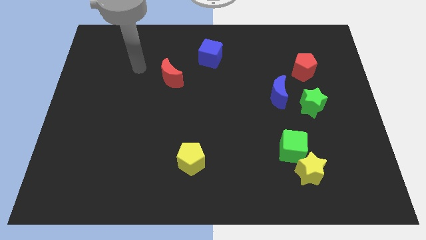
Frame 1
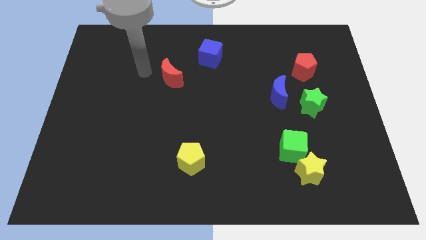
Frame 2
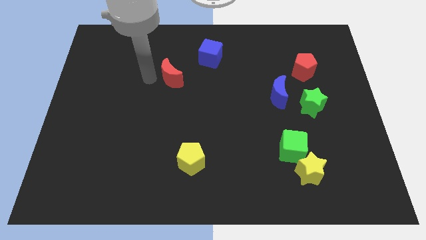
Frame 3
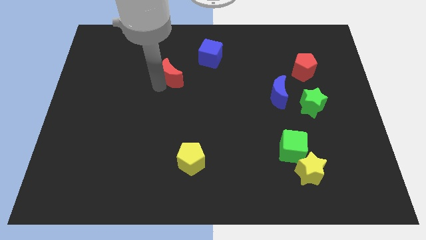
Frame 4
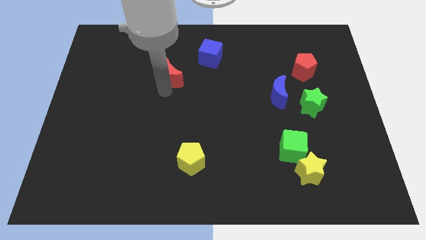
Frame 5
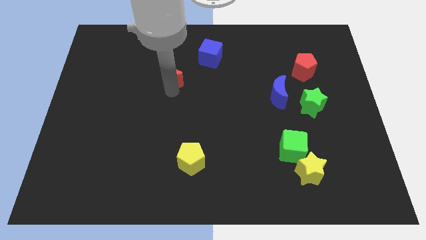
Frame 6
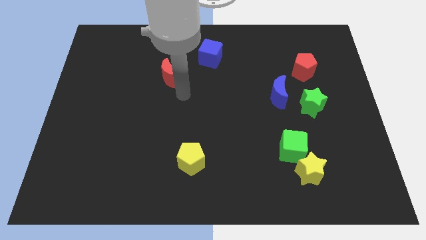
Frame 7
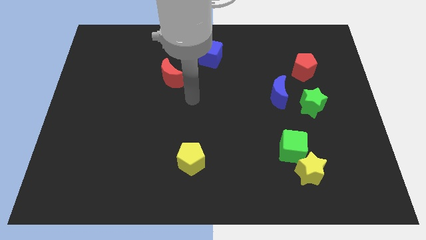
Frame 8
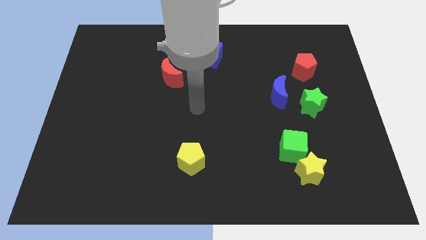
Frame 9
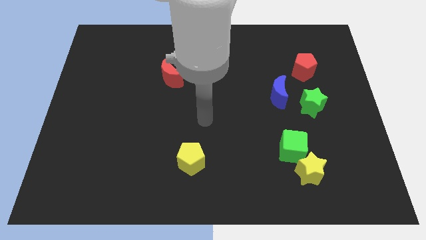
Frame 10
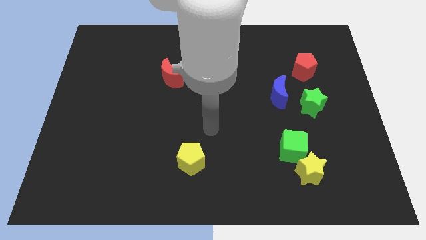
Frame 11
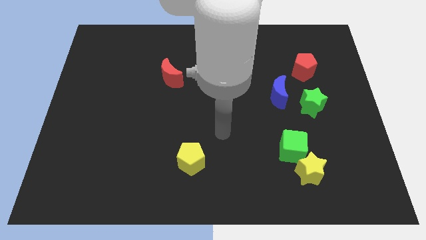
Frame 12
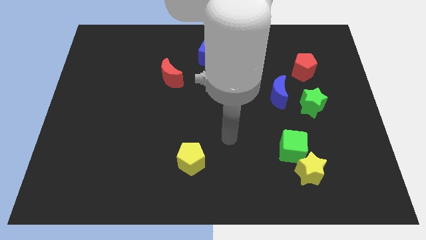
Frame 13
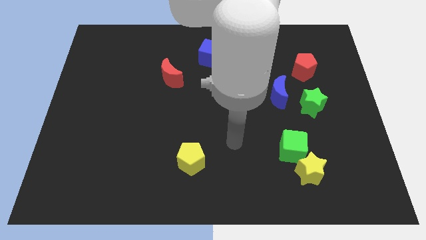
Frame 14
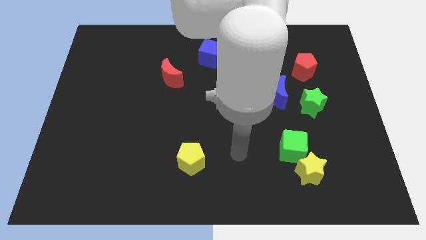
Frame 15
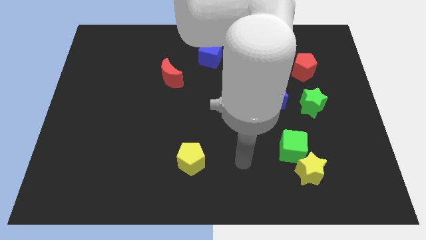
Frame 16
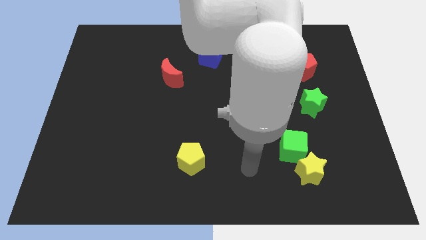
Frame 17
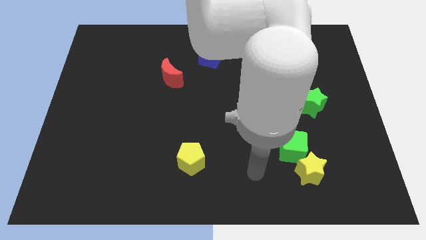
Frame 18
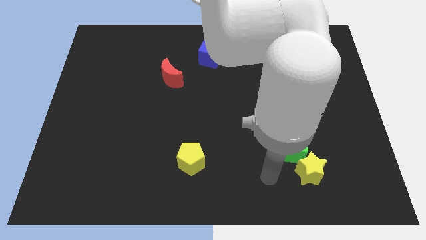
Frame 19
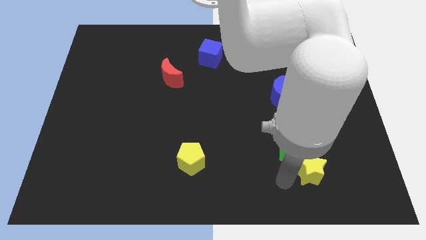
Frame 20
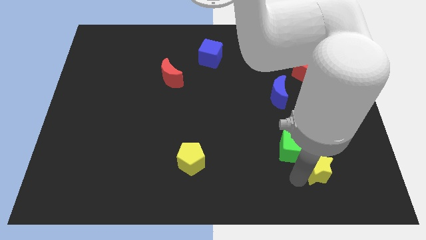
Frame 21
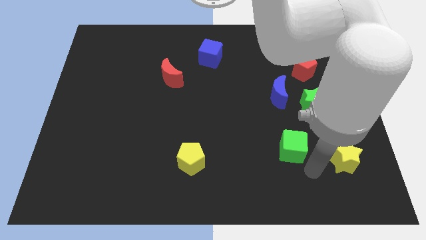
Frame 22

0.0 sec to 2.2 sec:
move the green cube away from the yellow star

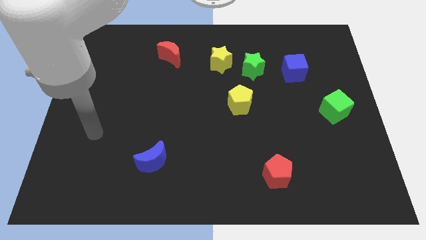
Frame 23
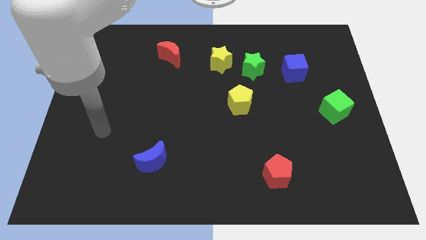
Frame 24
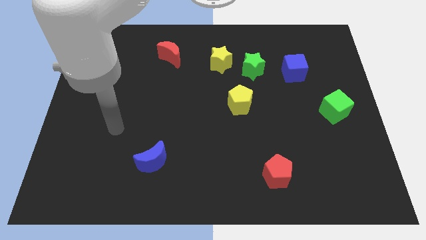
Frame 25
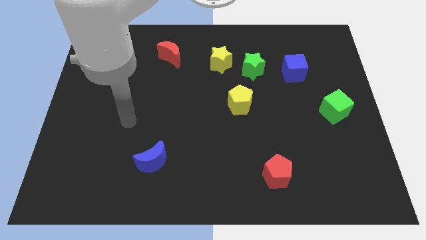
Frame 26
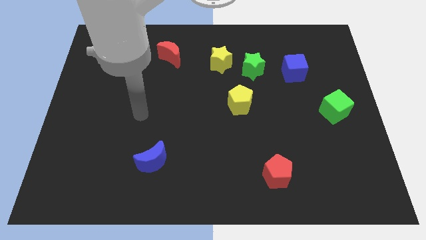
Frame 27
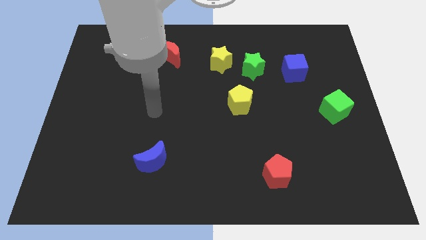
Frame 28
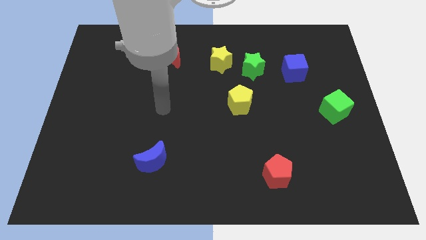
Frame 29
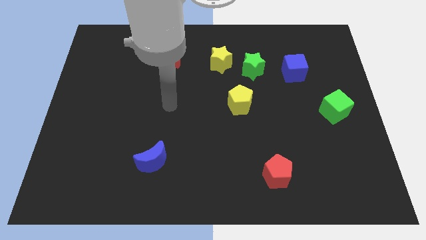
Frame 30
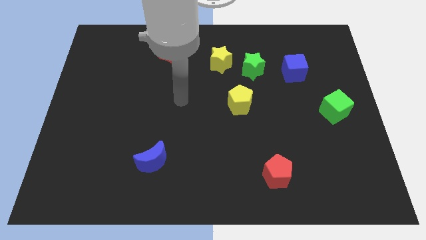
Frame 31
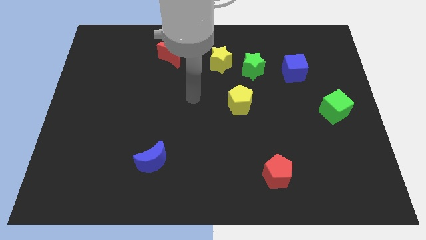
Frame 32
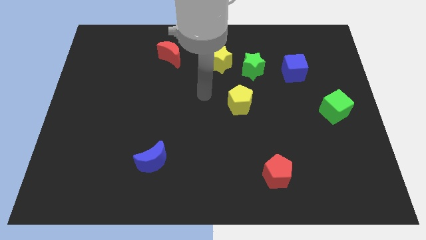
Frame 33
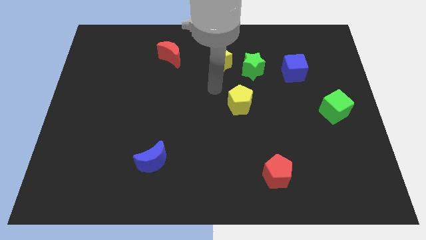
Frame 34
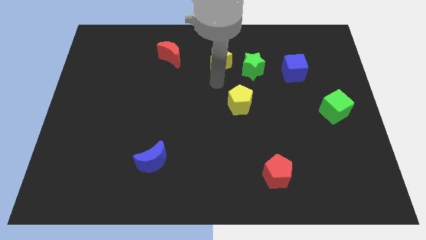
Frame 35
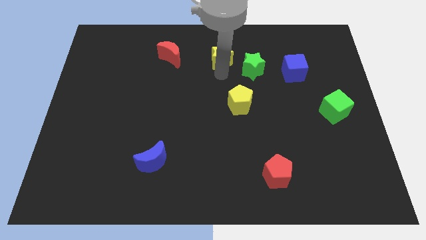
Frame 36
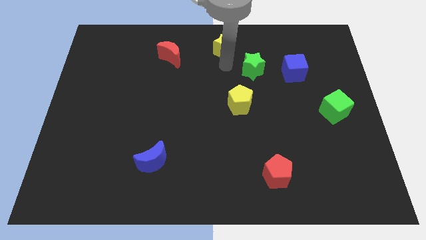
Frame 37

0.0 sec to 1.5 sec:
move the green star away from the yellow star

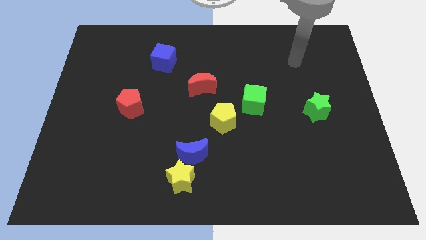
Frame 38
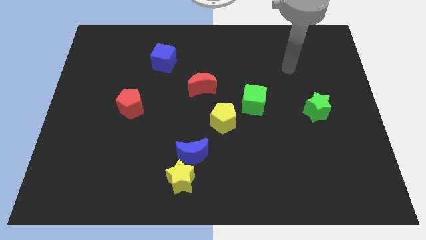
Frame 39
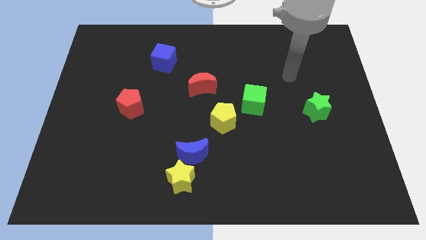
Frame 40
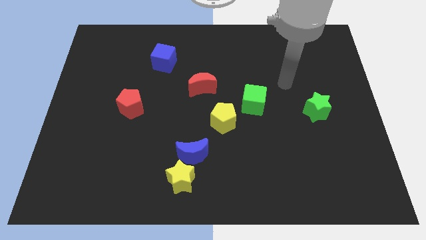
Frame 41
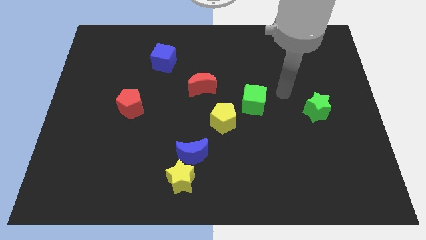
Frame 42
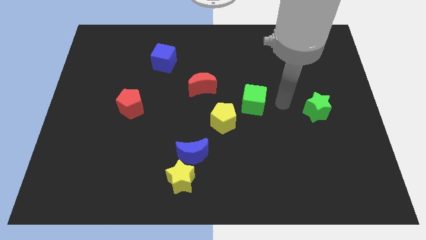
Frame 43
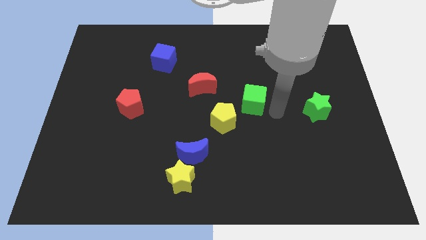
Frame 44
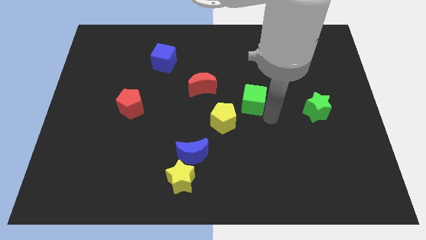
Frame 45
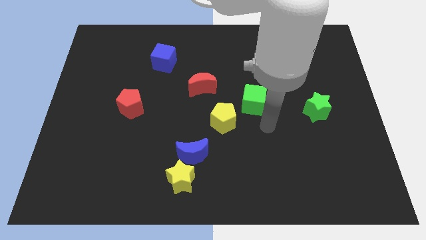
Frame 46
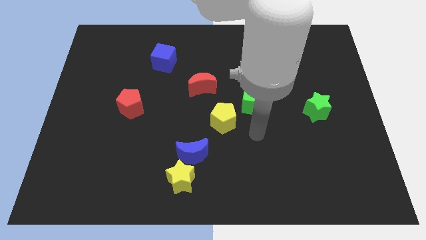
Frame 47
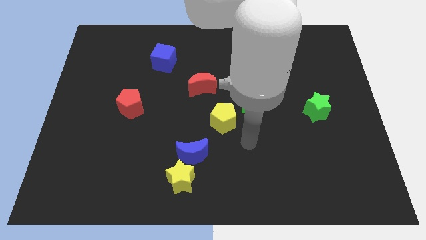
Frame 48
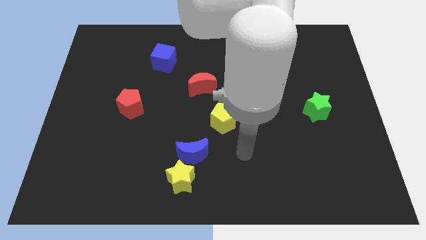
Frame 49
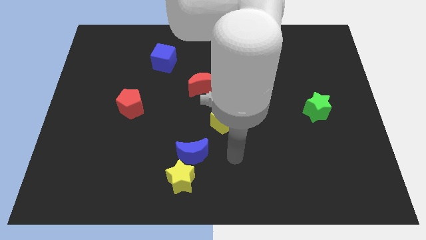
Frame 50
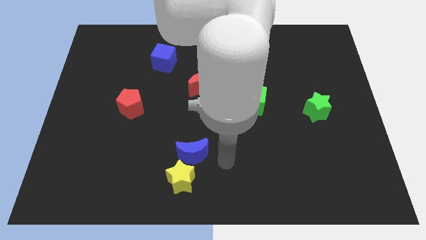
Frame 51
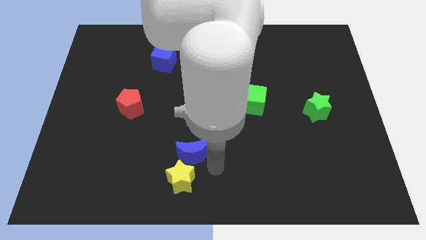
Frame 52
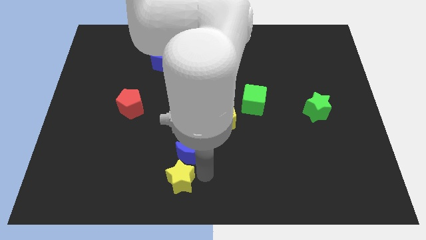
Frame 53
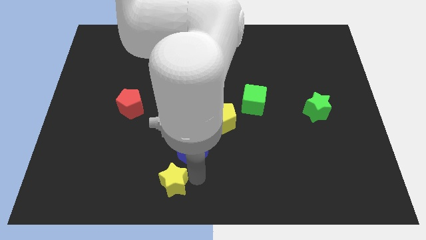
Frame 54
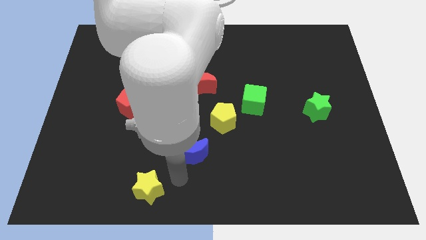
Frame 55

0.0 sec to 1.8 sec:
separate the blue moon from the yellow star

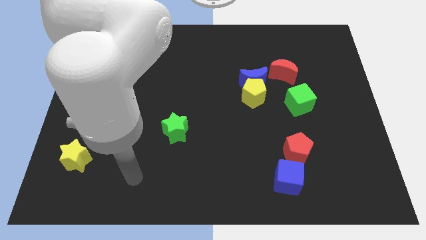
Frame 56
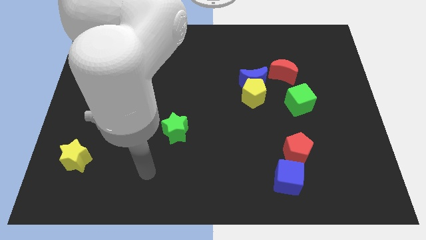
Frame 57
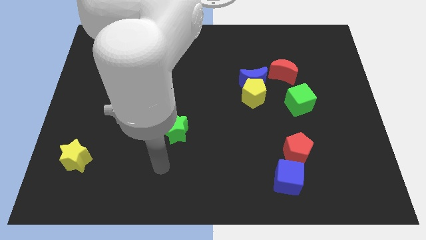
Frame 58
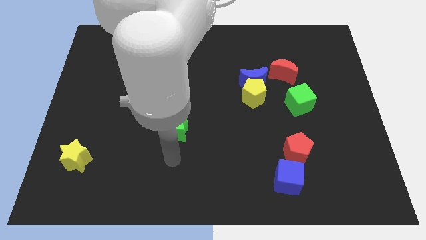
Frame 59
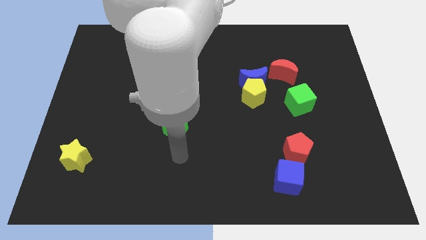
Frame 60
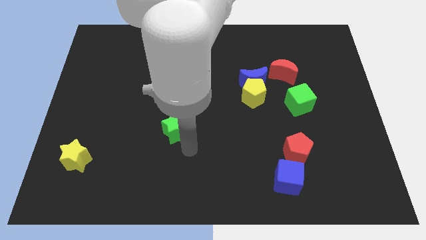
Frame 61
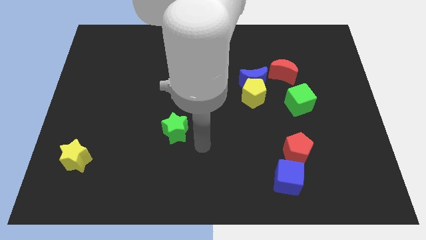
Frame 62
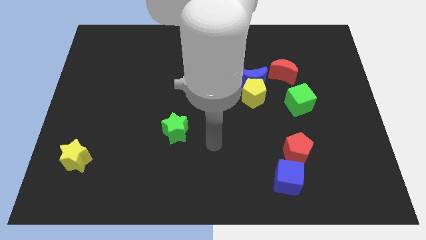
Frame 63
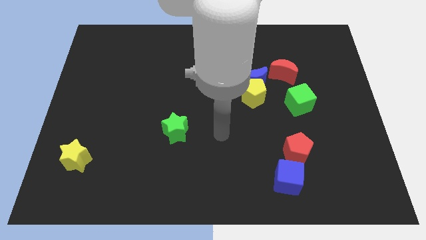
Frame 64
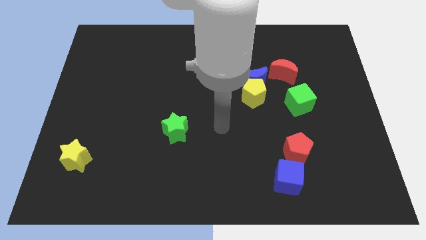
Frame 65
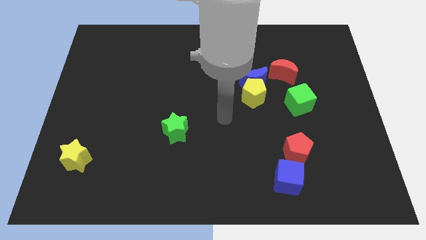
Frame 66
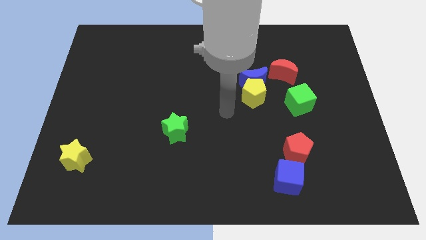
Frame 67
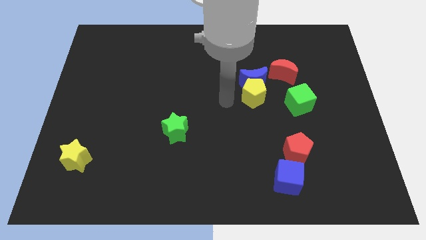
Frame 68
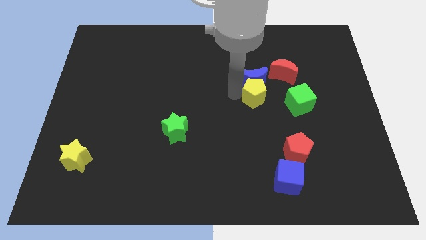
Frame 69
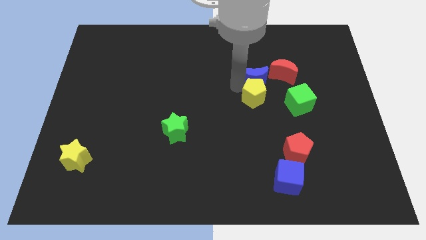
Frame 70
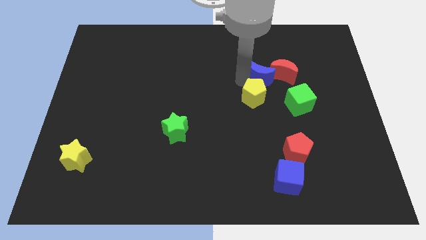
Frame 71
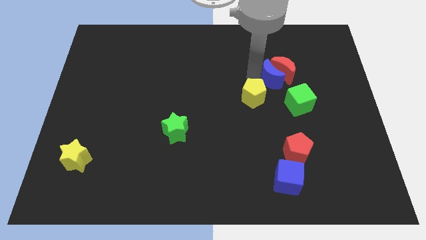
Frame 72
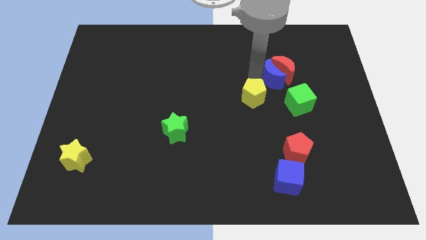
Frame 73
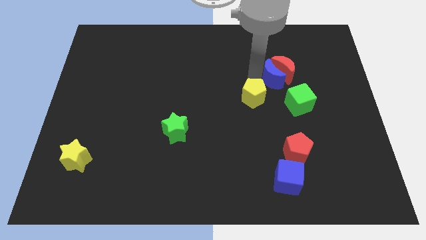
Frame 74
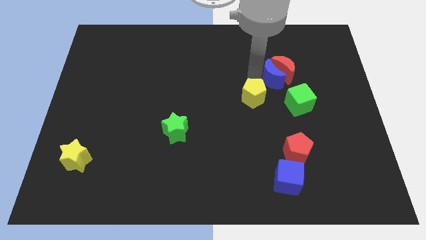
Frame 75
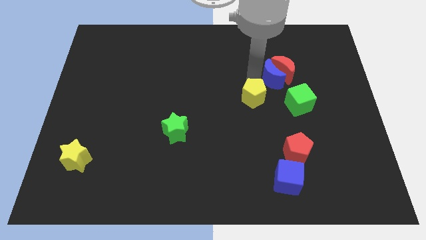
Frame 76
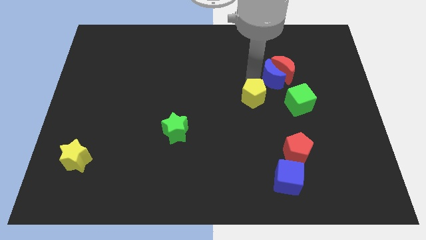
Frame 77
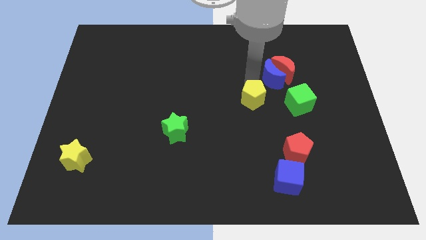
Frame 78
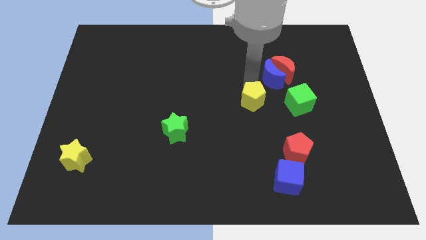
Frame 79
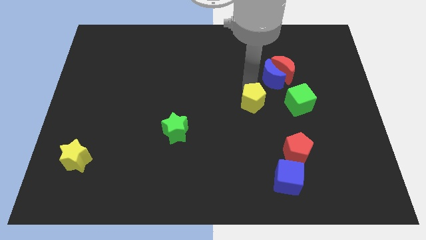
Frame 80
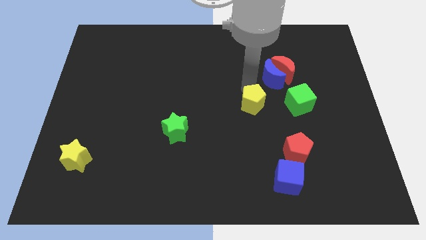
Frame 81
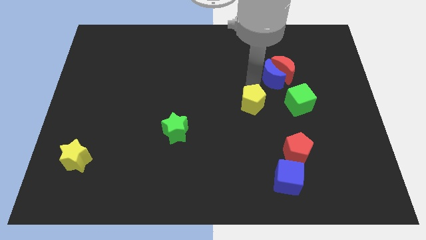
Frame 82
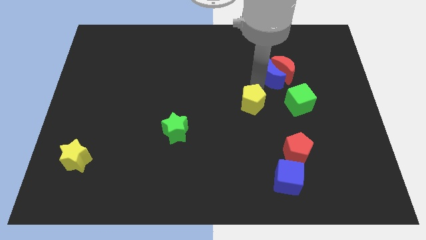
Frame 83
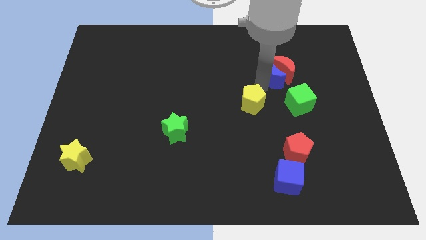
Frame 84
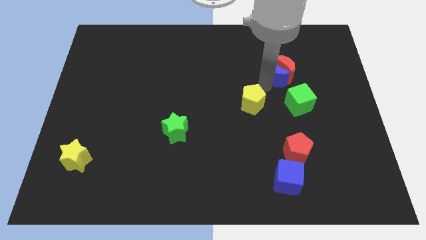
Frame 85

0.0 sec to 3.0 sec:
separate the yellow pentagon from the blue moon

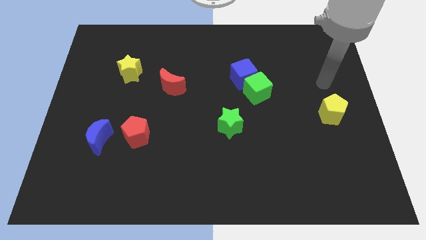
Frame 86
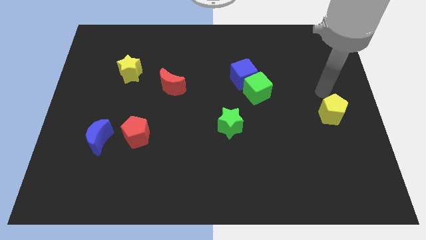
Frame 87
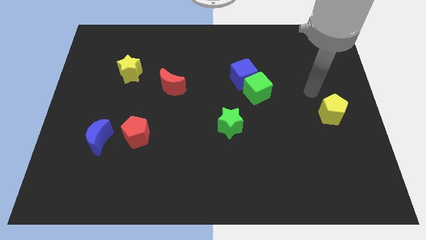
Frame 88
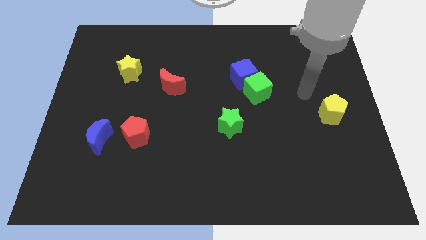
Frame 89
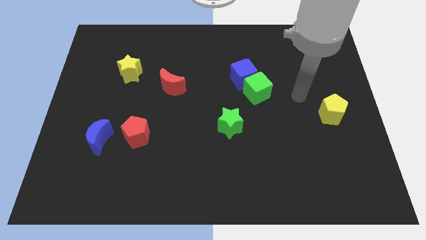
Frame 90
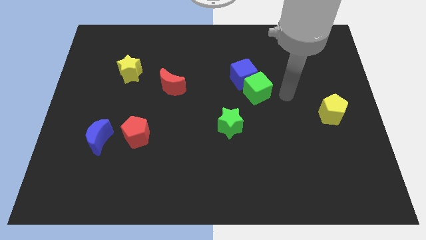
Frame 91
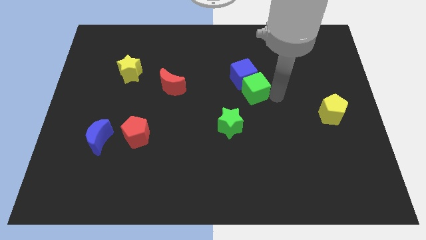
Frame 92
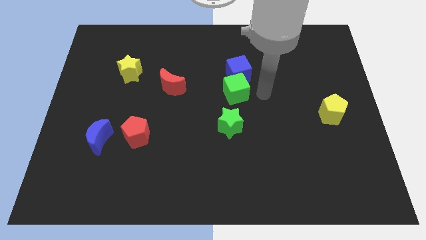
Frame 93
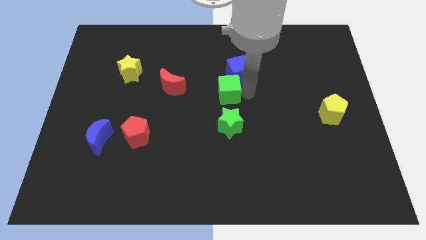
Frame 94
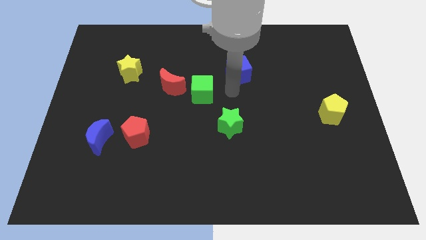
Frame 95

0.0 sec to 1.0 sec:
pull the blue cube apart from the green cube
